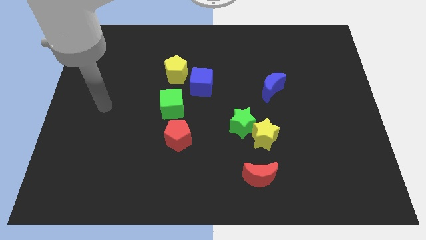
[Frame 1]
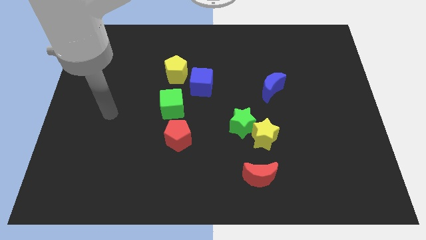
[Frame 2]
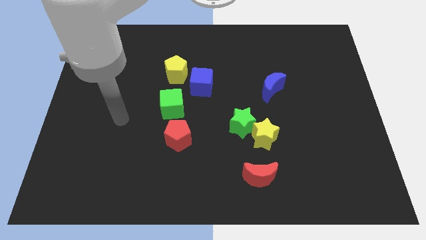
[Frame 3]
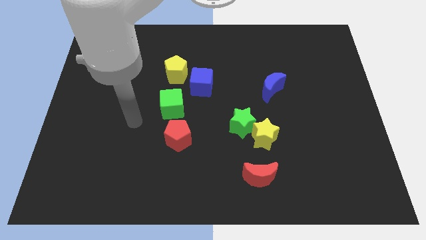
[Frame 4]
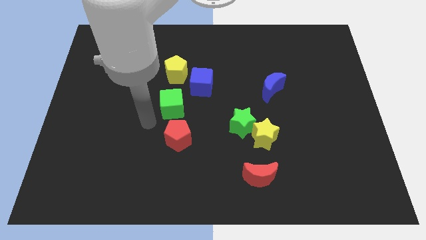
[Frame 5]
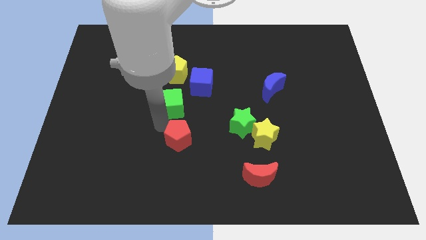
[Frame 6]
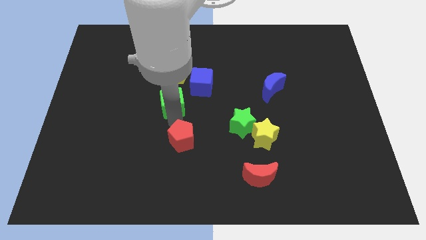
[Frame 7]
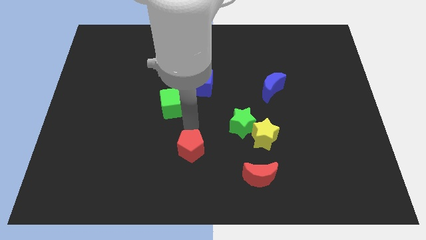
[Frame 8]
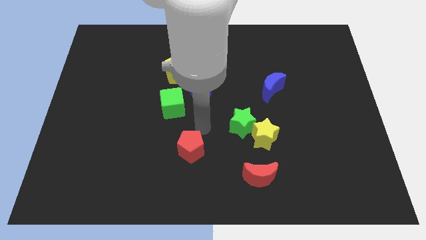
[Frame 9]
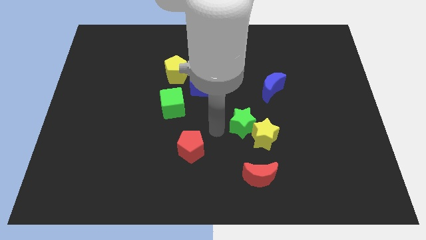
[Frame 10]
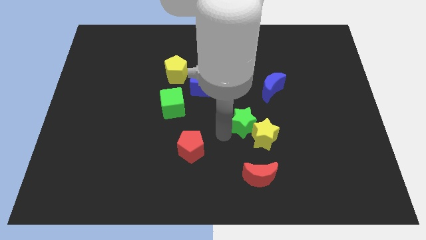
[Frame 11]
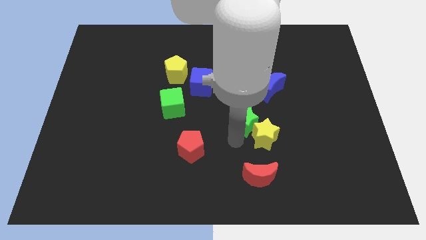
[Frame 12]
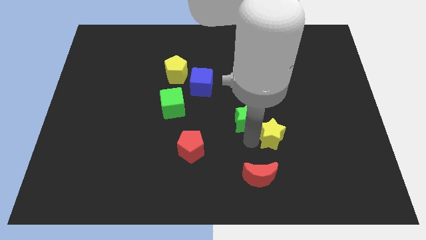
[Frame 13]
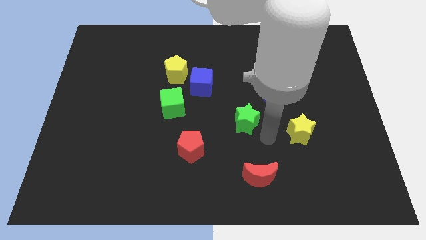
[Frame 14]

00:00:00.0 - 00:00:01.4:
pull the green star apart from the yellow star

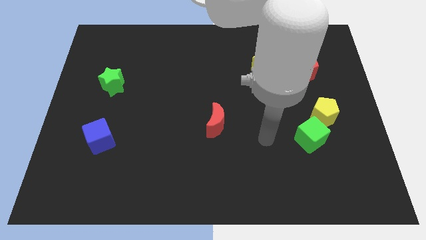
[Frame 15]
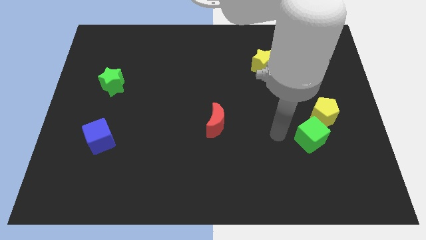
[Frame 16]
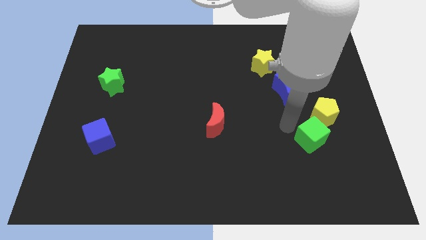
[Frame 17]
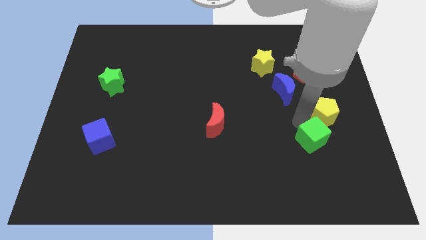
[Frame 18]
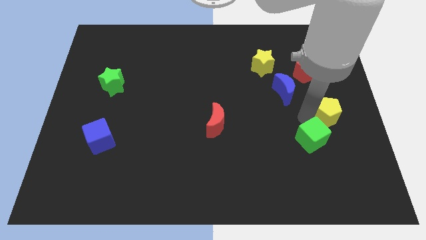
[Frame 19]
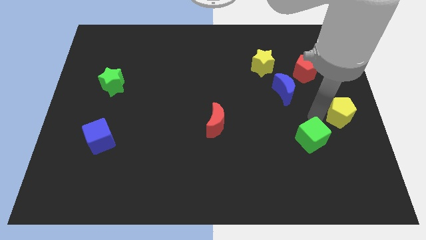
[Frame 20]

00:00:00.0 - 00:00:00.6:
separate the green cube from the yellow pentagon

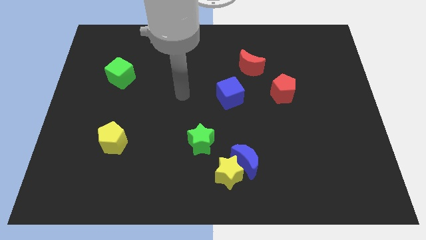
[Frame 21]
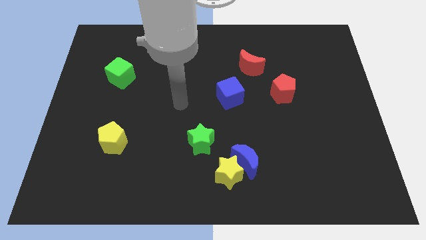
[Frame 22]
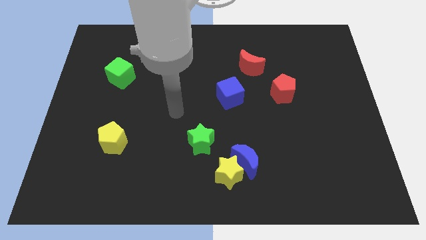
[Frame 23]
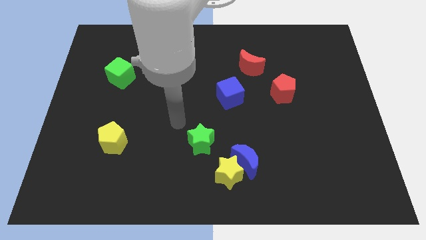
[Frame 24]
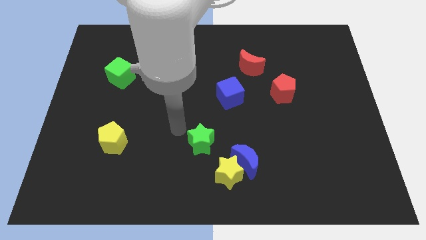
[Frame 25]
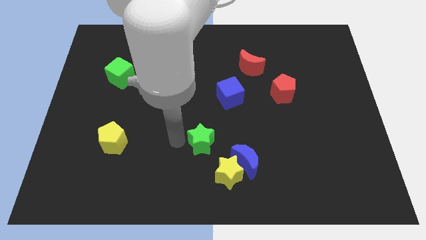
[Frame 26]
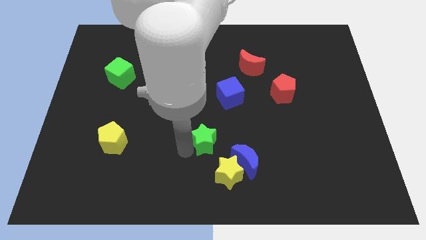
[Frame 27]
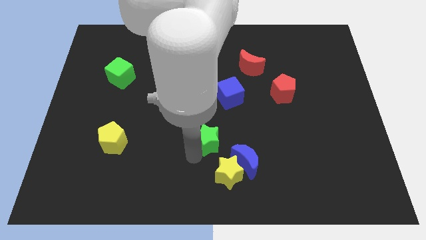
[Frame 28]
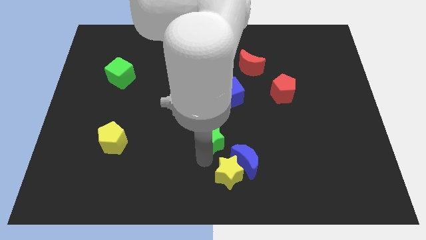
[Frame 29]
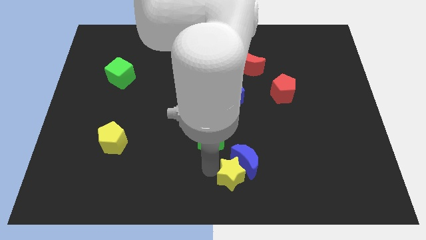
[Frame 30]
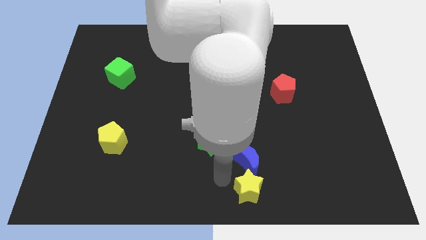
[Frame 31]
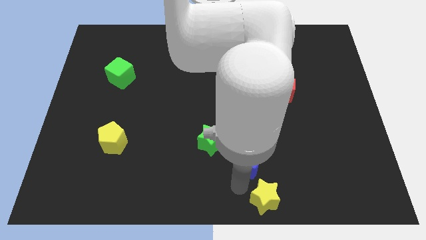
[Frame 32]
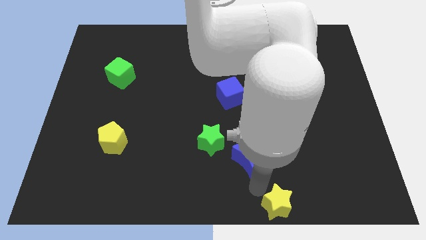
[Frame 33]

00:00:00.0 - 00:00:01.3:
move the blue moon away from the yellow star

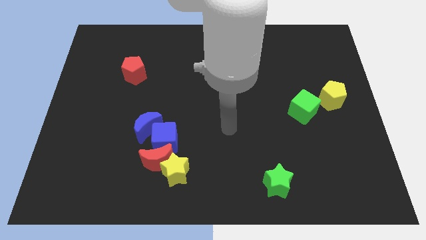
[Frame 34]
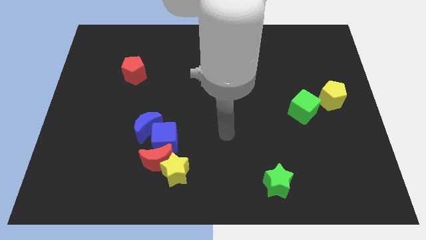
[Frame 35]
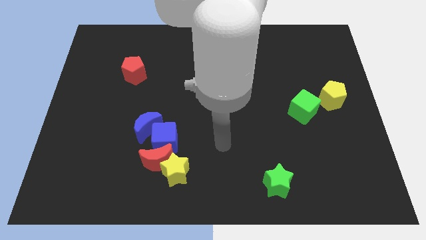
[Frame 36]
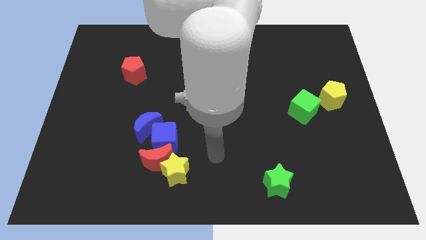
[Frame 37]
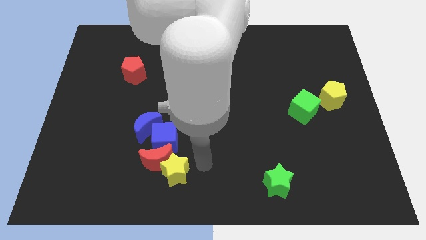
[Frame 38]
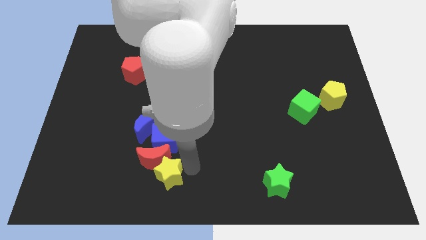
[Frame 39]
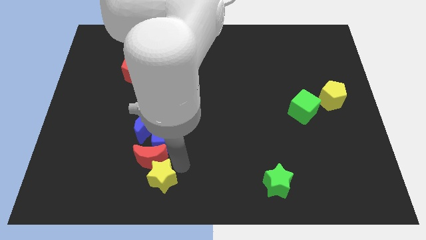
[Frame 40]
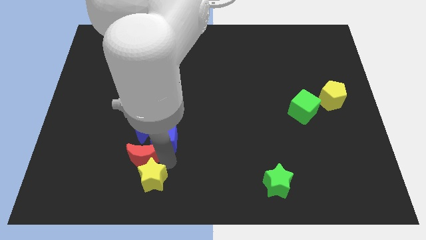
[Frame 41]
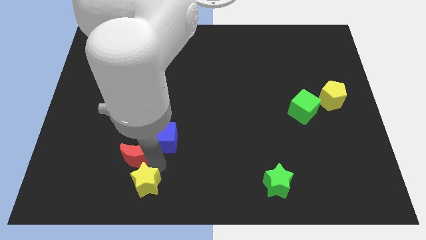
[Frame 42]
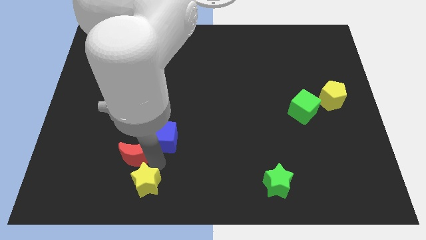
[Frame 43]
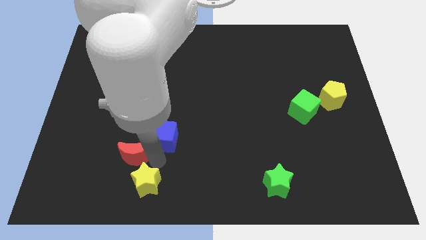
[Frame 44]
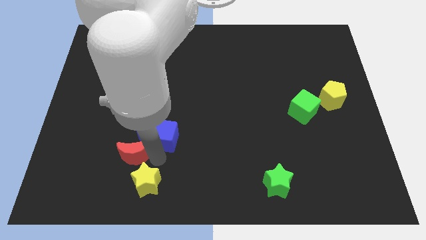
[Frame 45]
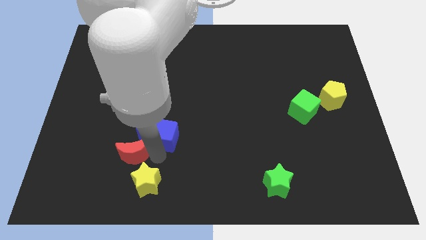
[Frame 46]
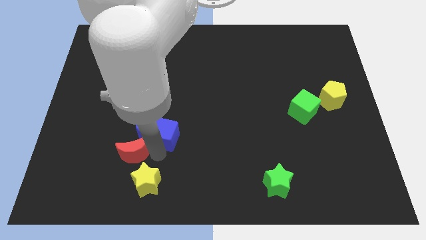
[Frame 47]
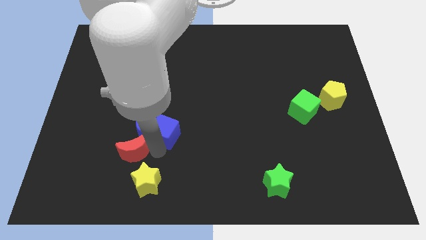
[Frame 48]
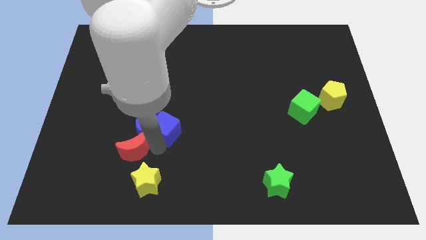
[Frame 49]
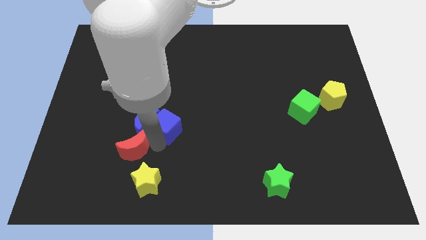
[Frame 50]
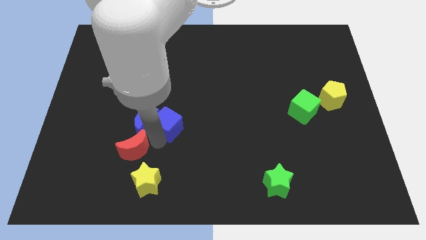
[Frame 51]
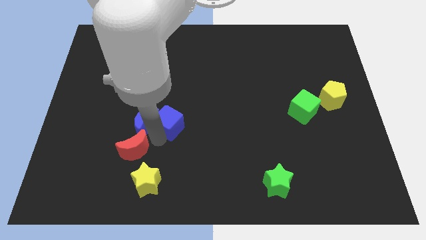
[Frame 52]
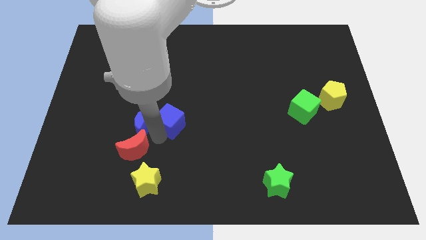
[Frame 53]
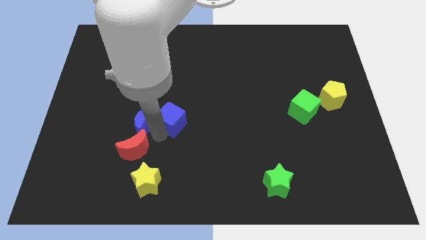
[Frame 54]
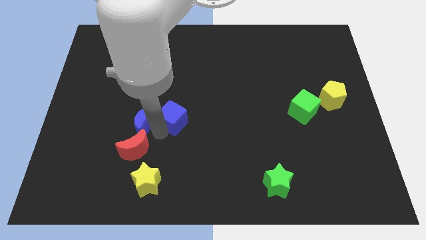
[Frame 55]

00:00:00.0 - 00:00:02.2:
move the blue cube away from the red moon, blue moon, and yellow star

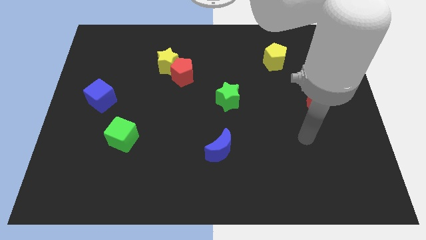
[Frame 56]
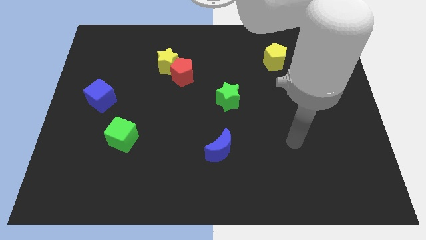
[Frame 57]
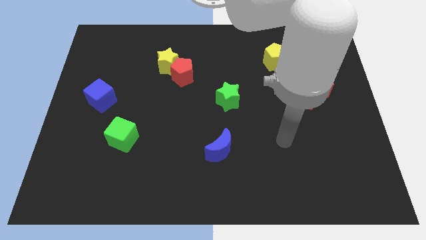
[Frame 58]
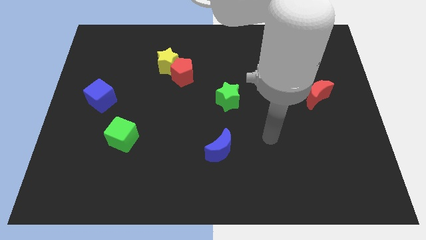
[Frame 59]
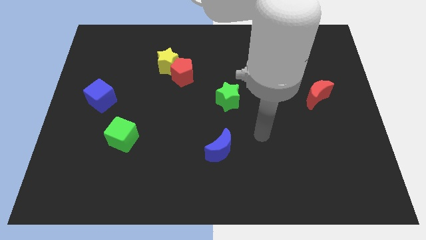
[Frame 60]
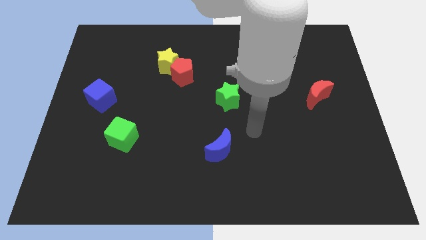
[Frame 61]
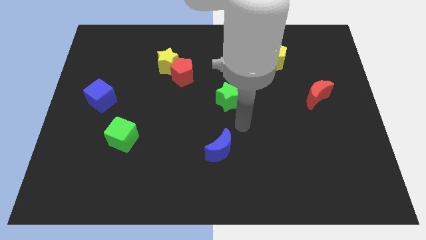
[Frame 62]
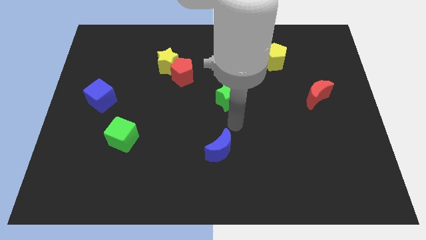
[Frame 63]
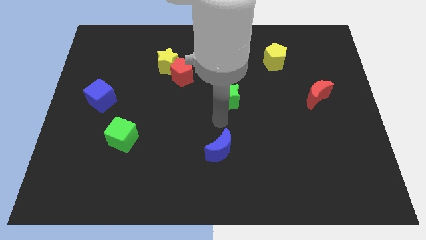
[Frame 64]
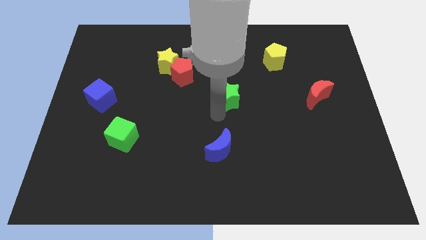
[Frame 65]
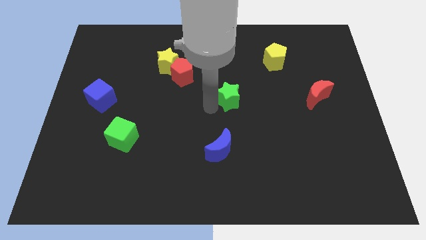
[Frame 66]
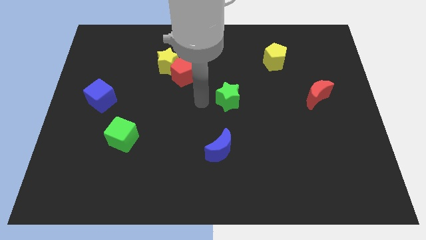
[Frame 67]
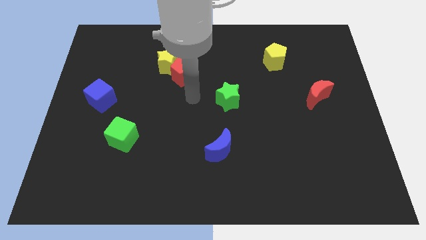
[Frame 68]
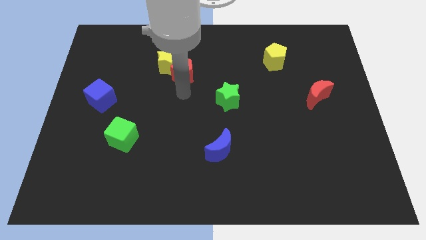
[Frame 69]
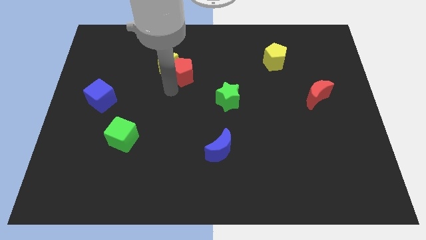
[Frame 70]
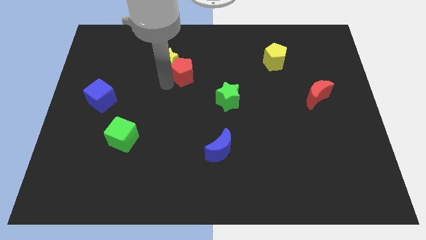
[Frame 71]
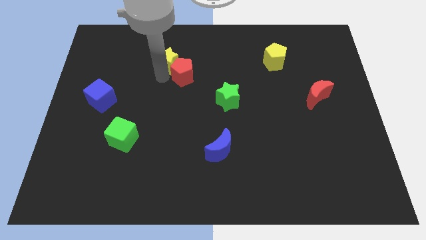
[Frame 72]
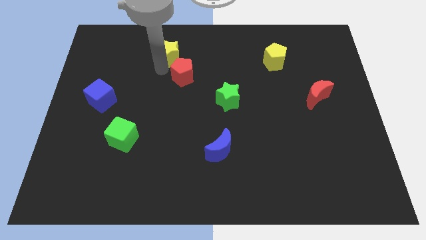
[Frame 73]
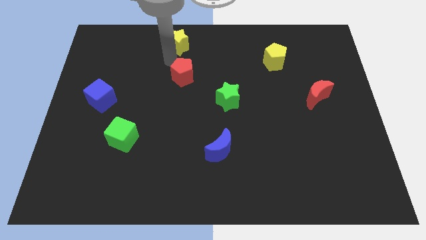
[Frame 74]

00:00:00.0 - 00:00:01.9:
move the red pentagon away from the yellow star

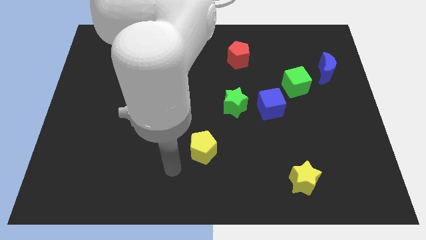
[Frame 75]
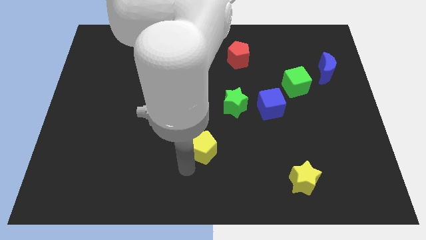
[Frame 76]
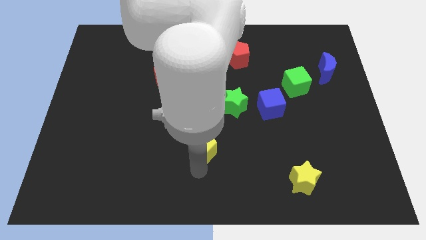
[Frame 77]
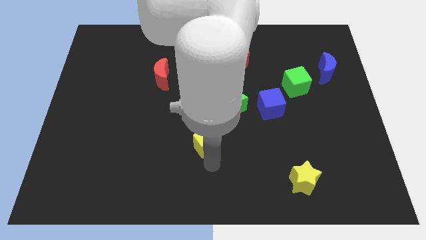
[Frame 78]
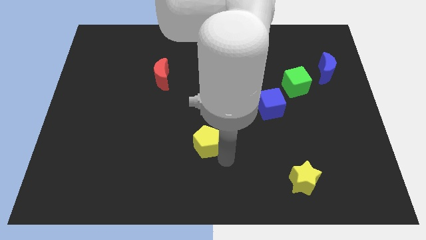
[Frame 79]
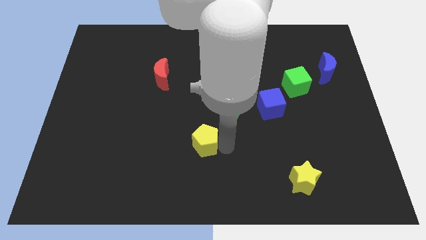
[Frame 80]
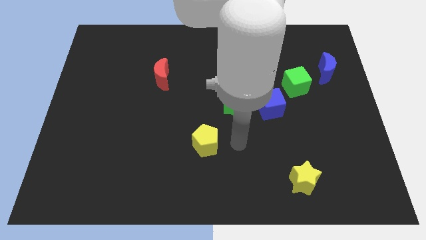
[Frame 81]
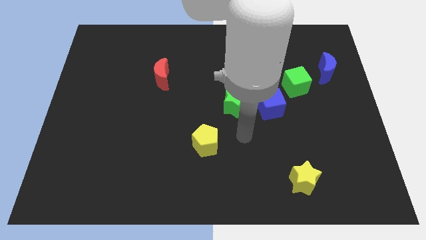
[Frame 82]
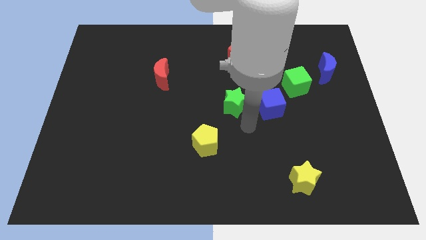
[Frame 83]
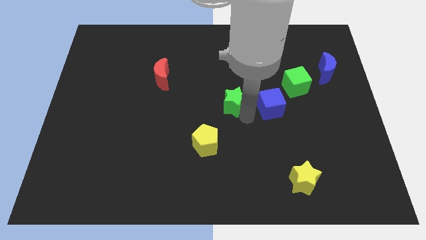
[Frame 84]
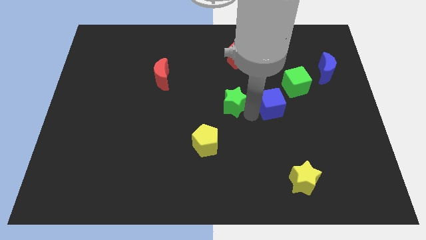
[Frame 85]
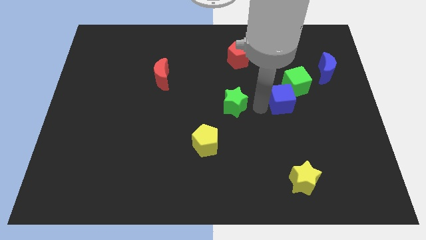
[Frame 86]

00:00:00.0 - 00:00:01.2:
move the green star away from the blue cube

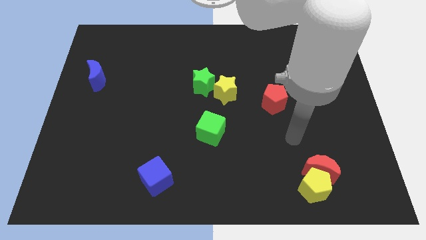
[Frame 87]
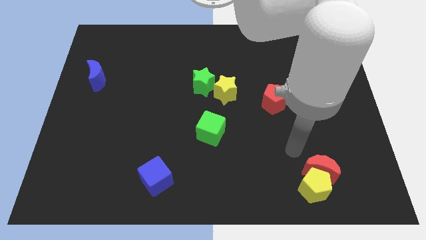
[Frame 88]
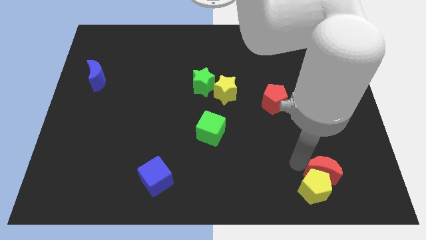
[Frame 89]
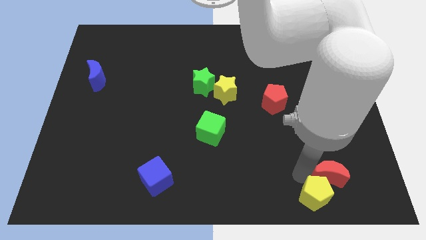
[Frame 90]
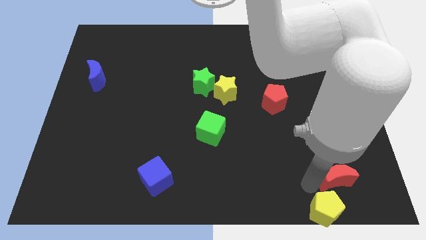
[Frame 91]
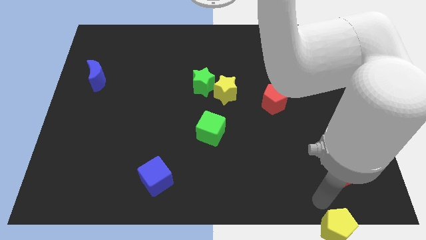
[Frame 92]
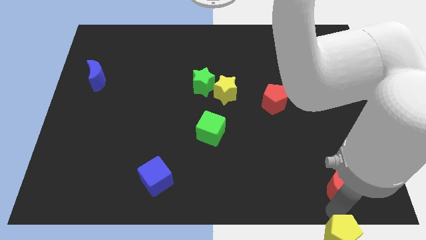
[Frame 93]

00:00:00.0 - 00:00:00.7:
separate the red moon from the yellow pentagon

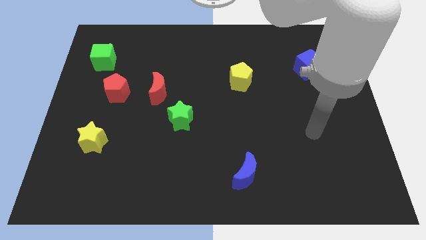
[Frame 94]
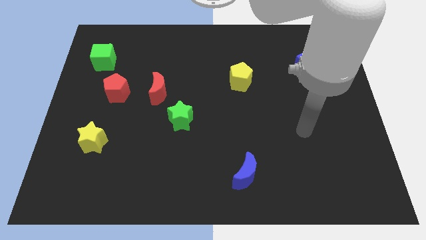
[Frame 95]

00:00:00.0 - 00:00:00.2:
move the red pentagon away from the red moon
